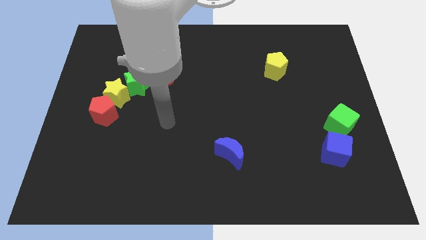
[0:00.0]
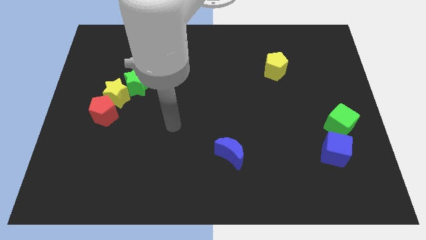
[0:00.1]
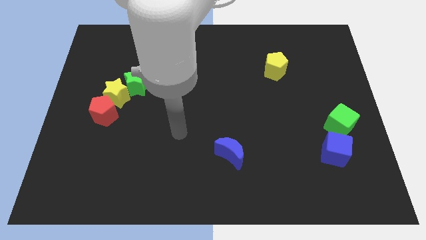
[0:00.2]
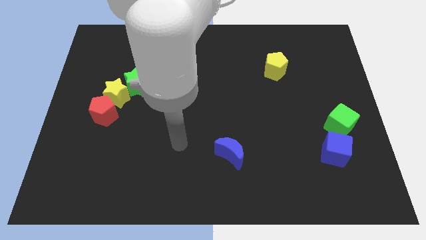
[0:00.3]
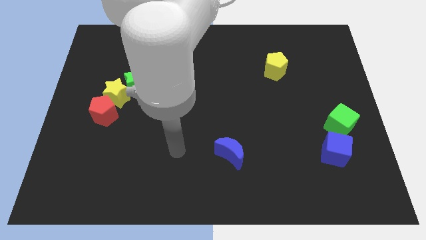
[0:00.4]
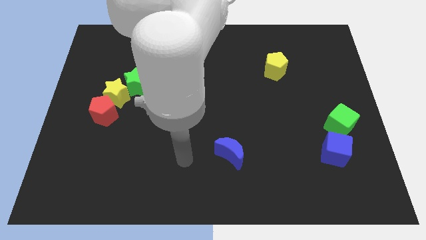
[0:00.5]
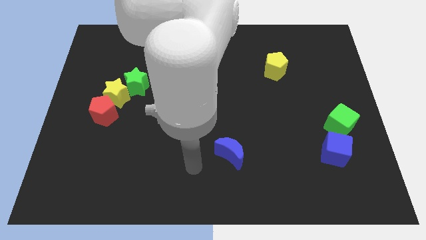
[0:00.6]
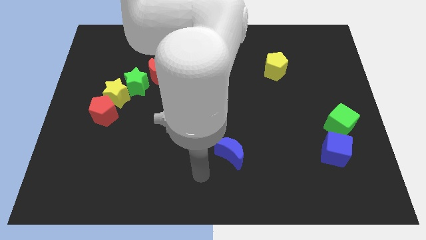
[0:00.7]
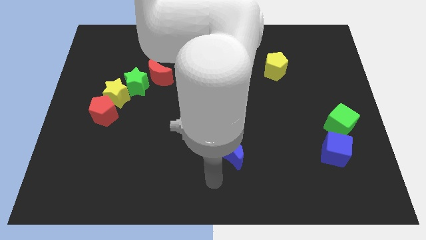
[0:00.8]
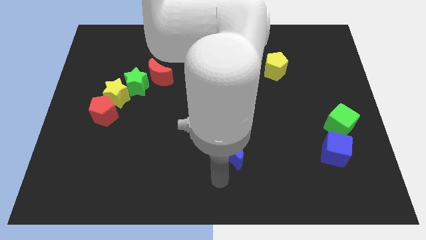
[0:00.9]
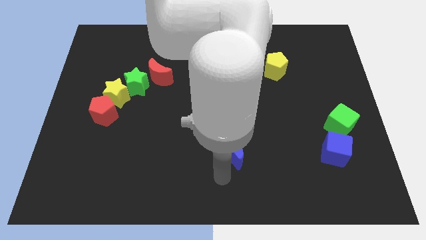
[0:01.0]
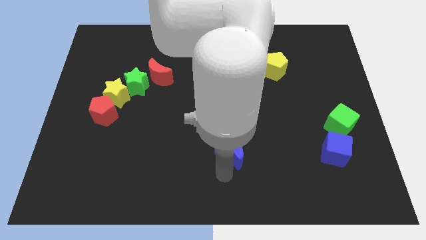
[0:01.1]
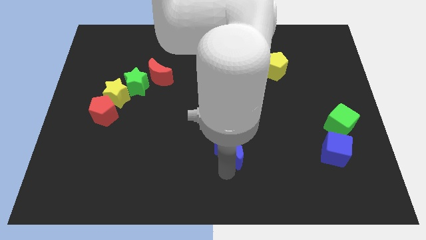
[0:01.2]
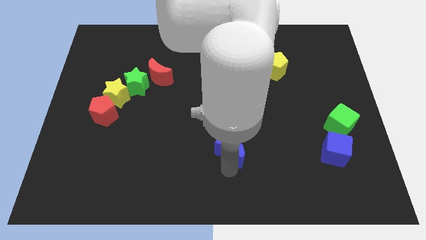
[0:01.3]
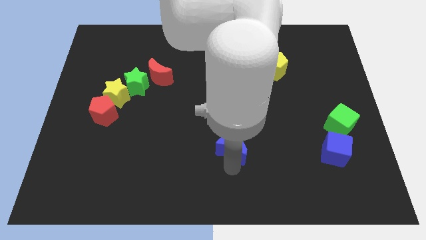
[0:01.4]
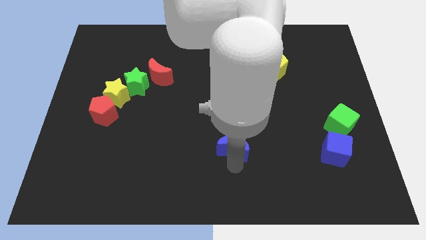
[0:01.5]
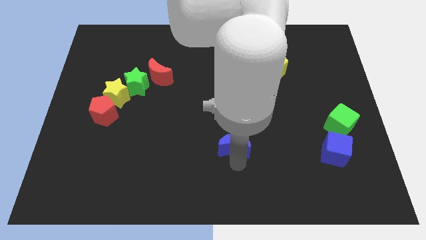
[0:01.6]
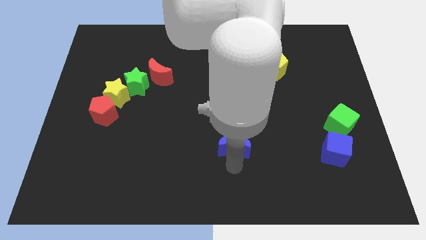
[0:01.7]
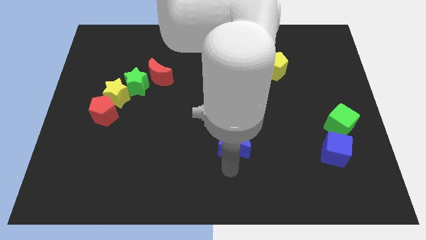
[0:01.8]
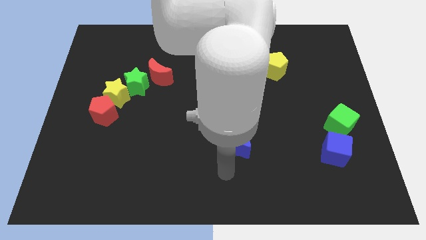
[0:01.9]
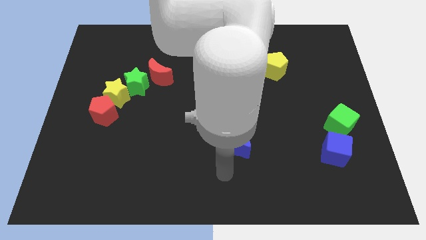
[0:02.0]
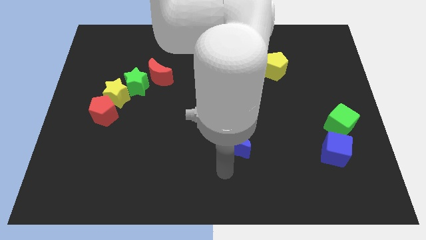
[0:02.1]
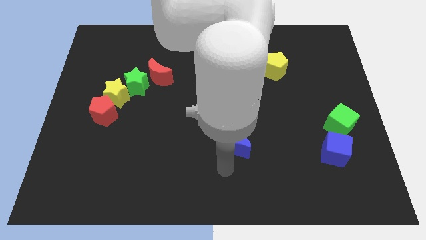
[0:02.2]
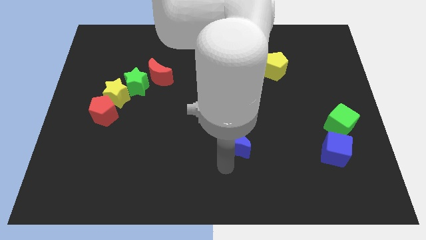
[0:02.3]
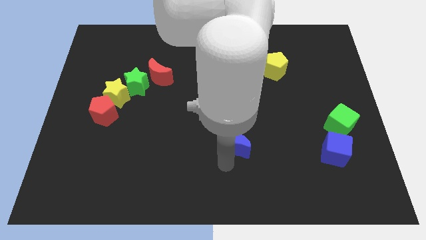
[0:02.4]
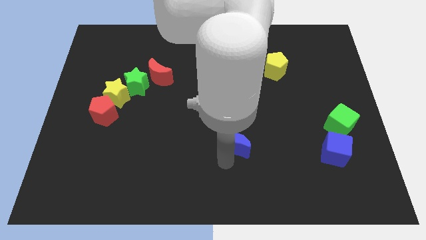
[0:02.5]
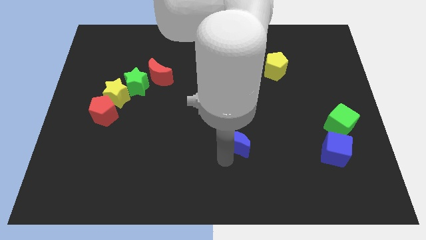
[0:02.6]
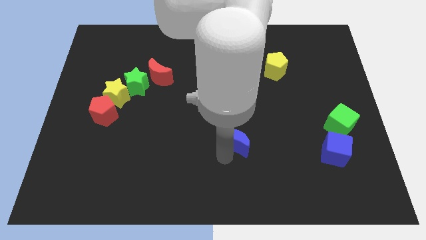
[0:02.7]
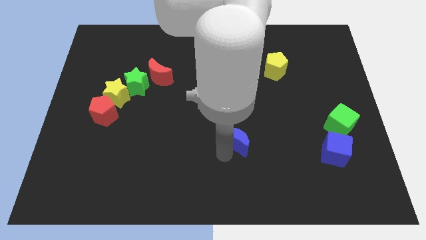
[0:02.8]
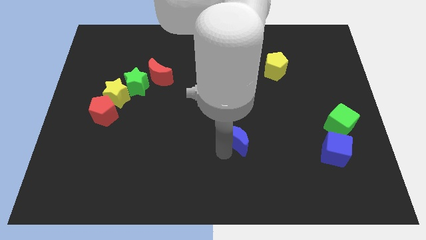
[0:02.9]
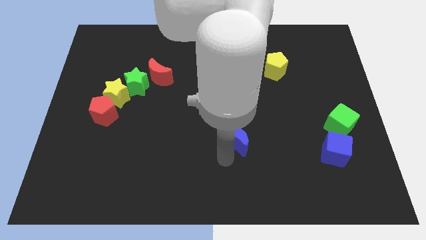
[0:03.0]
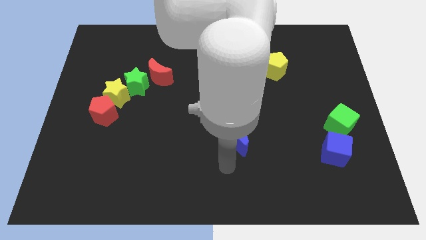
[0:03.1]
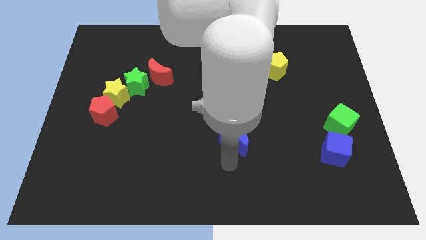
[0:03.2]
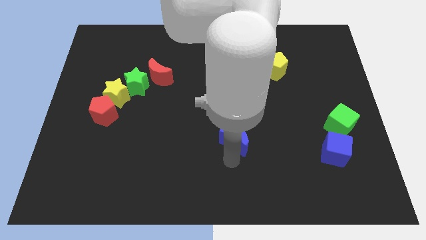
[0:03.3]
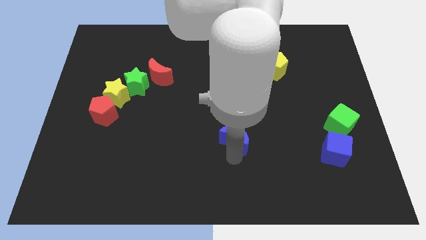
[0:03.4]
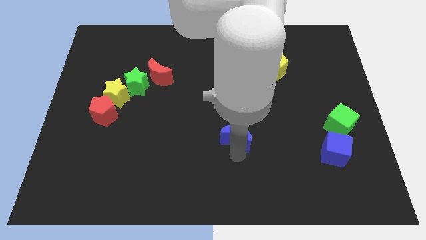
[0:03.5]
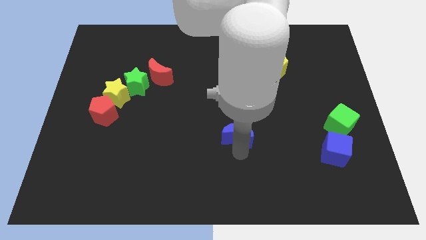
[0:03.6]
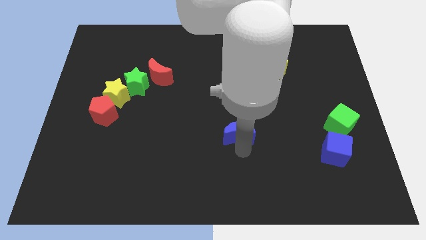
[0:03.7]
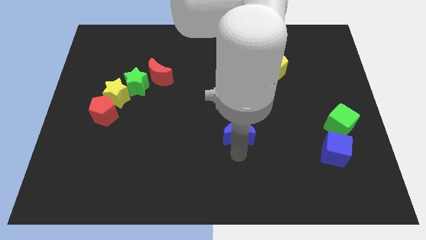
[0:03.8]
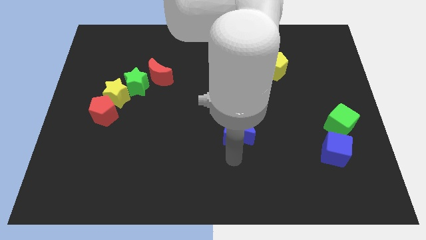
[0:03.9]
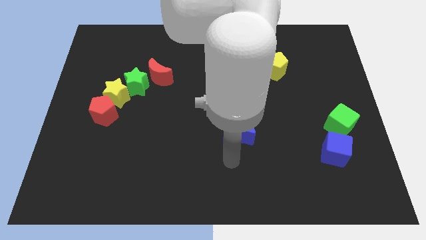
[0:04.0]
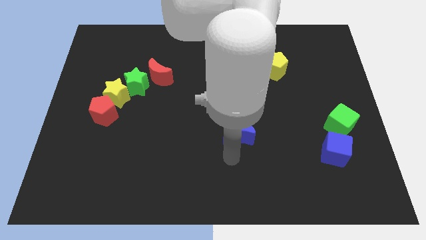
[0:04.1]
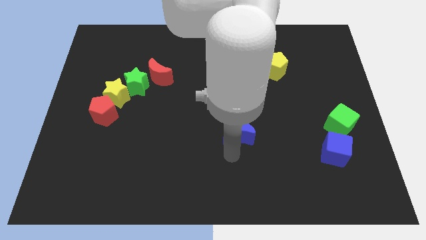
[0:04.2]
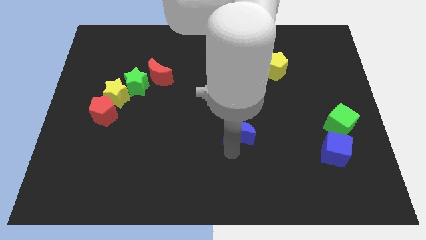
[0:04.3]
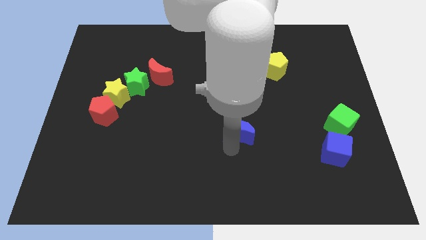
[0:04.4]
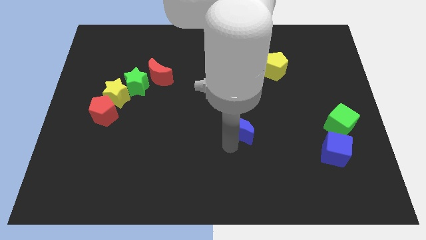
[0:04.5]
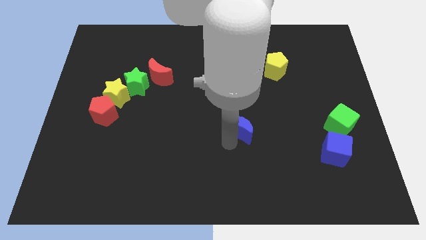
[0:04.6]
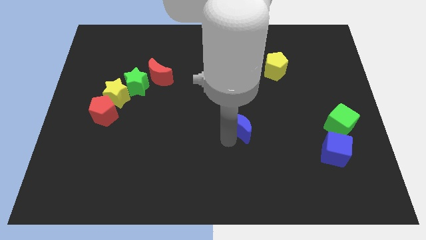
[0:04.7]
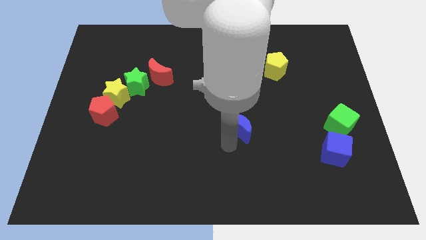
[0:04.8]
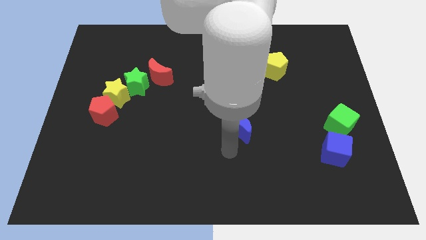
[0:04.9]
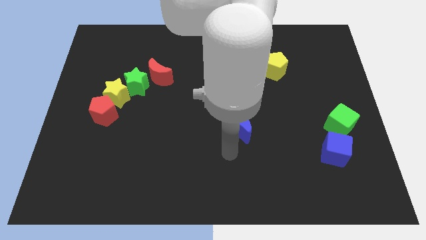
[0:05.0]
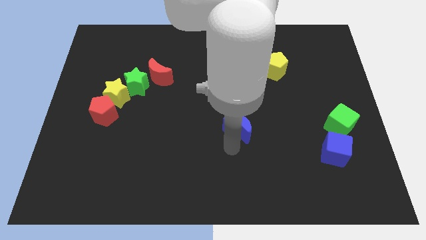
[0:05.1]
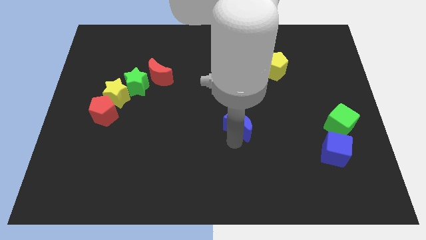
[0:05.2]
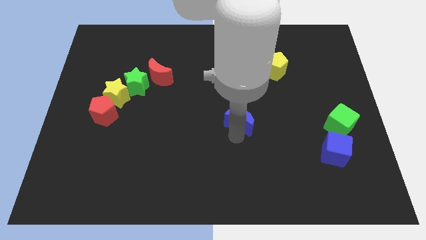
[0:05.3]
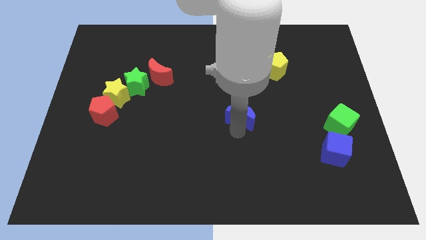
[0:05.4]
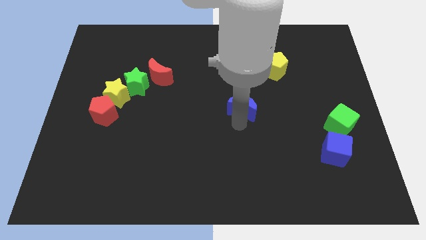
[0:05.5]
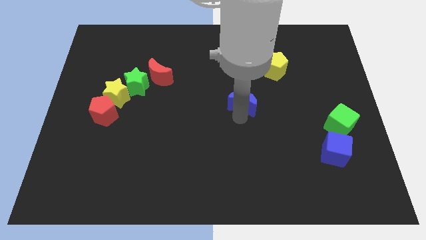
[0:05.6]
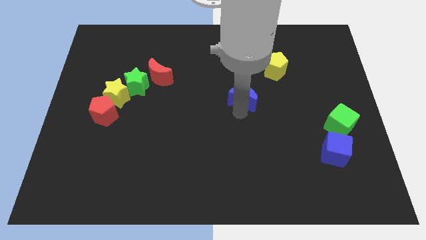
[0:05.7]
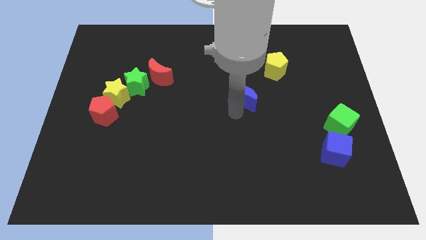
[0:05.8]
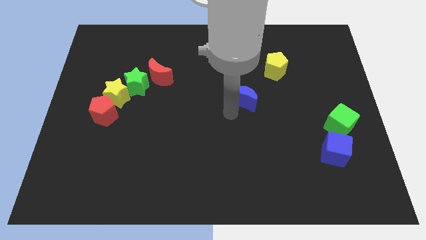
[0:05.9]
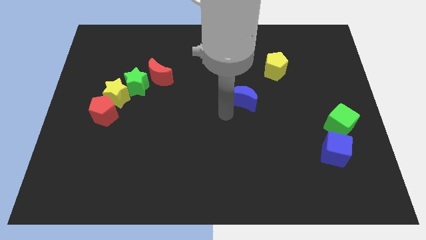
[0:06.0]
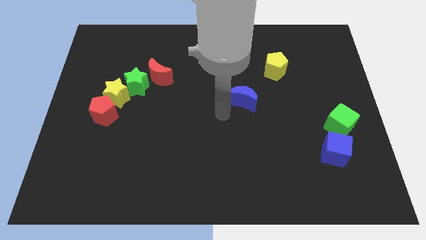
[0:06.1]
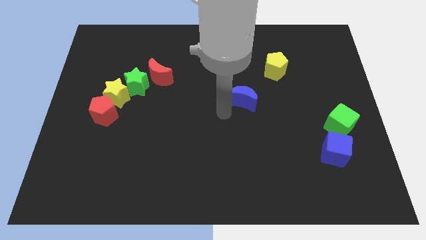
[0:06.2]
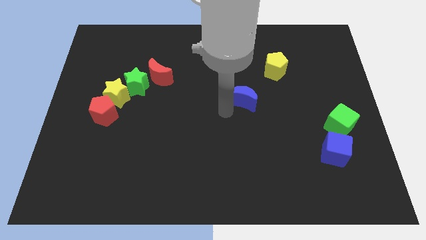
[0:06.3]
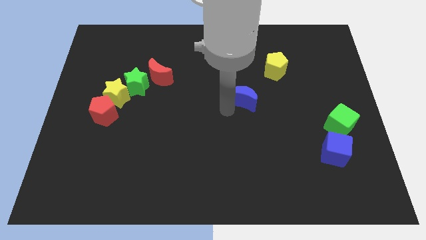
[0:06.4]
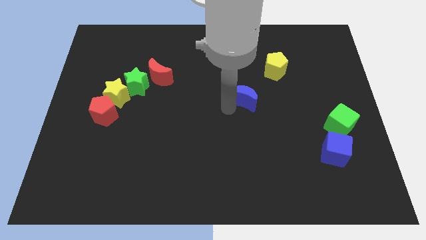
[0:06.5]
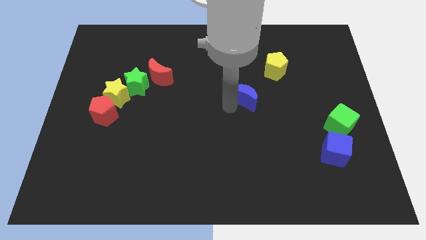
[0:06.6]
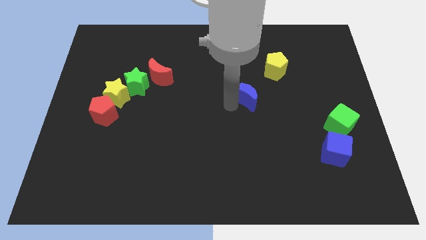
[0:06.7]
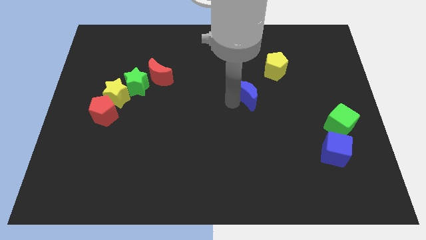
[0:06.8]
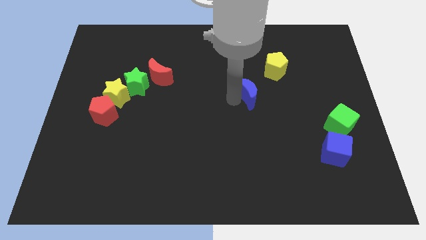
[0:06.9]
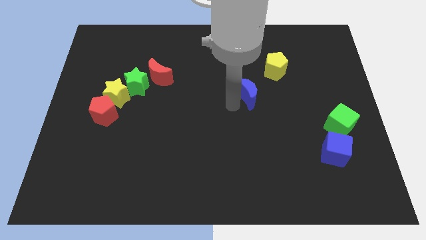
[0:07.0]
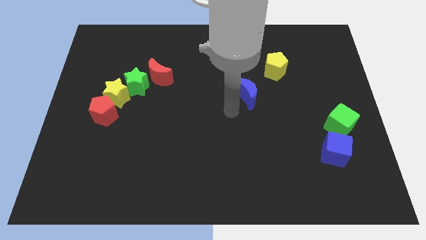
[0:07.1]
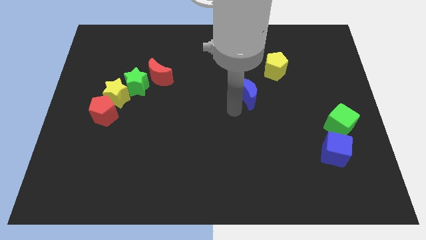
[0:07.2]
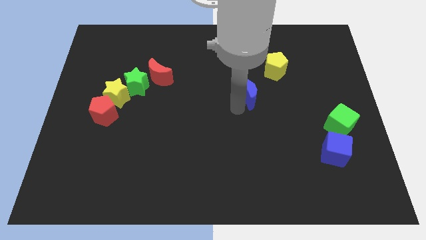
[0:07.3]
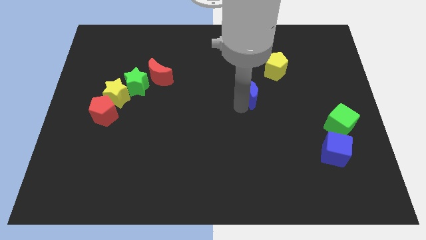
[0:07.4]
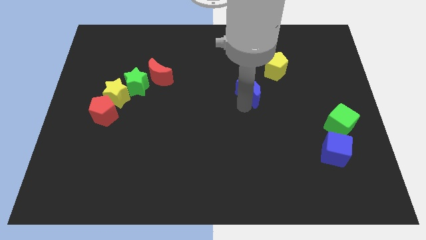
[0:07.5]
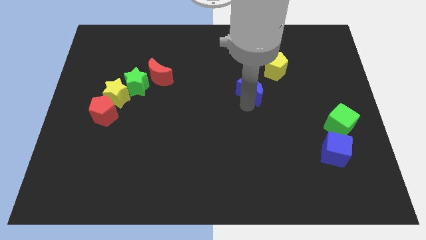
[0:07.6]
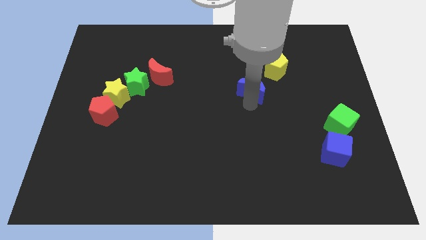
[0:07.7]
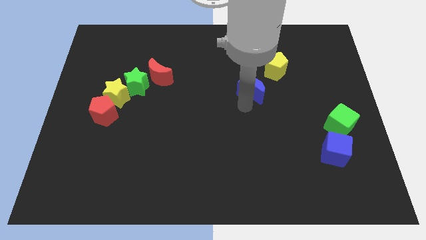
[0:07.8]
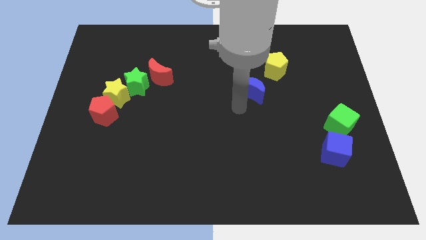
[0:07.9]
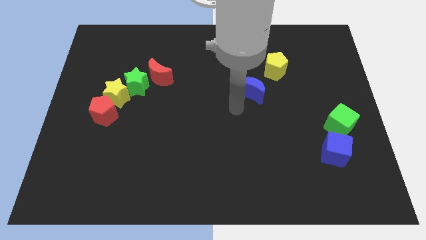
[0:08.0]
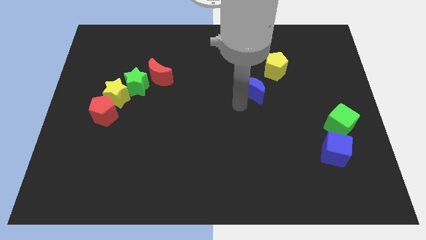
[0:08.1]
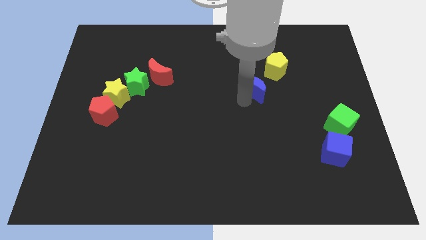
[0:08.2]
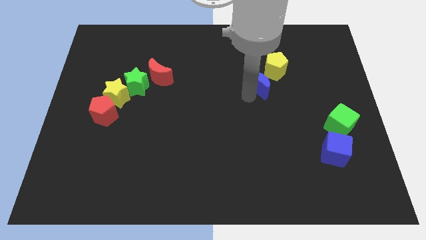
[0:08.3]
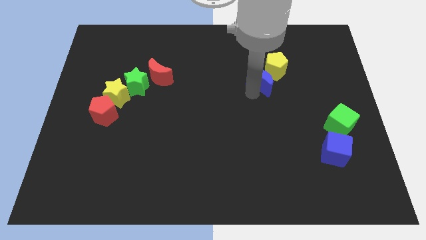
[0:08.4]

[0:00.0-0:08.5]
put the blue moon towards the yellow pentagon
